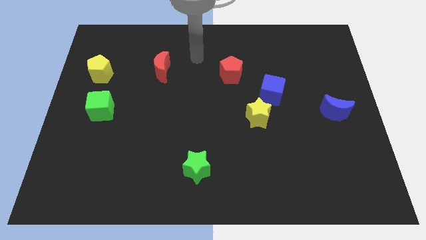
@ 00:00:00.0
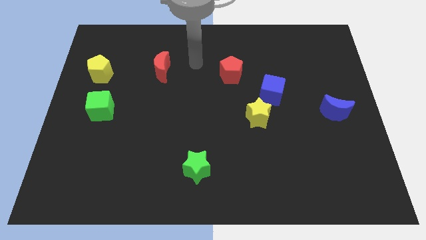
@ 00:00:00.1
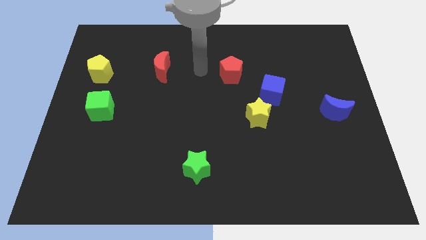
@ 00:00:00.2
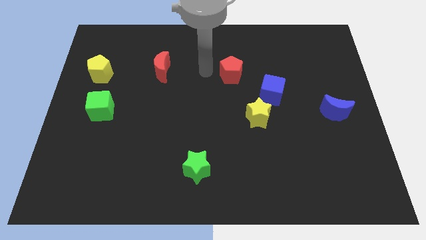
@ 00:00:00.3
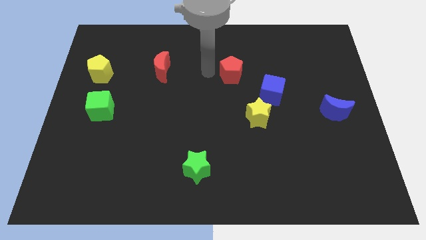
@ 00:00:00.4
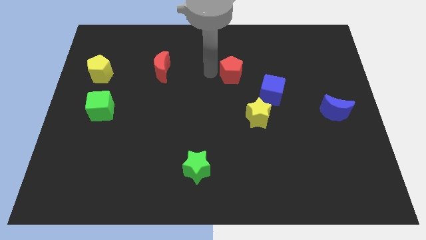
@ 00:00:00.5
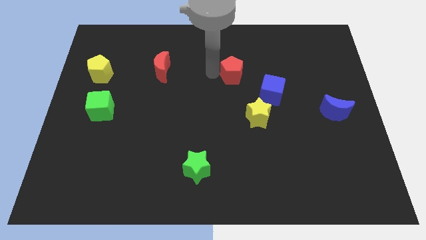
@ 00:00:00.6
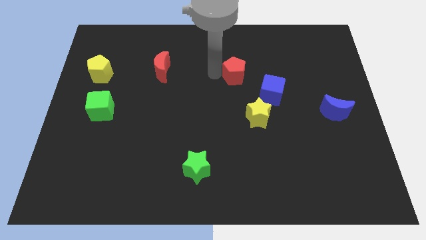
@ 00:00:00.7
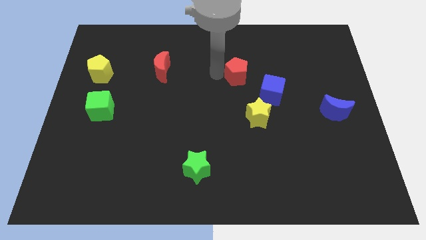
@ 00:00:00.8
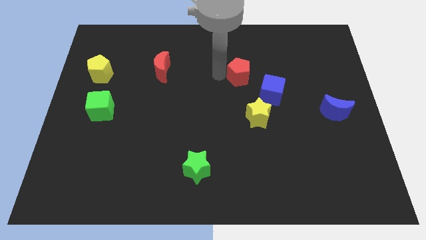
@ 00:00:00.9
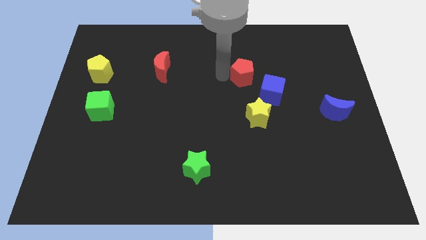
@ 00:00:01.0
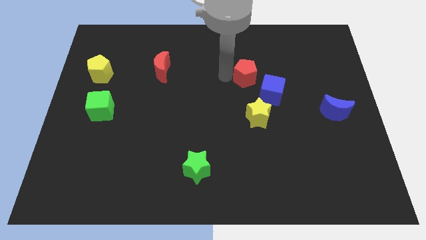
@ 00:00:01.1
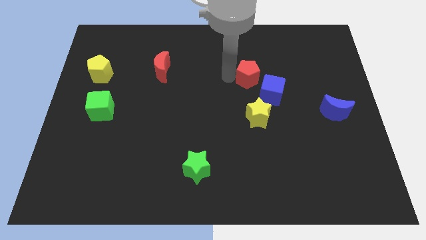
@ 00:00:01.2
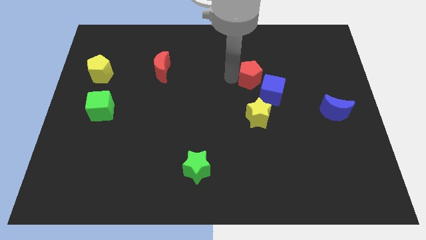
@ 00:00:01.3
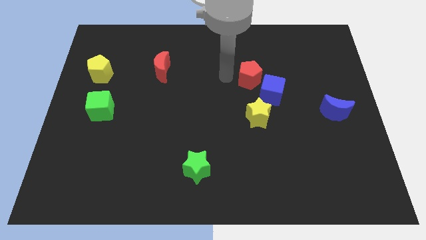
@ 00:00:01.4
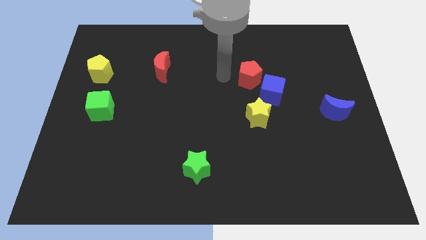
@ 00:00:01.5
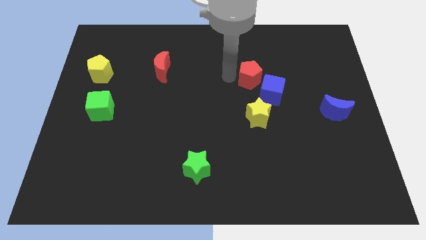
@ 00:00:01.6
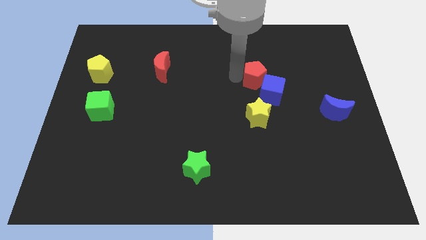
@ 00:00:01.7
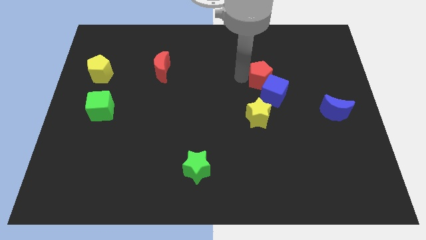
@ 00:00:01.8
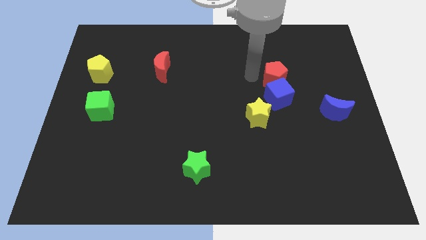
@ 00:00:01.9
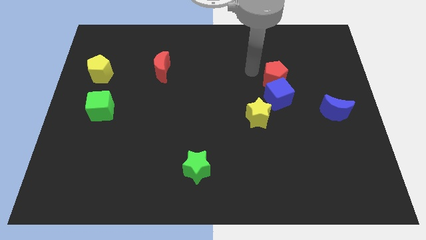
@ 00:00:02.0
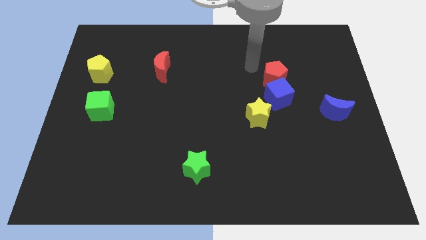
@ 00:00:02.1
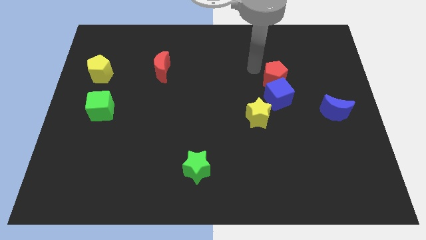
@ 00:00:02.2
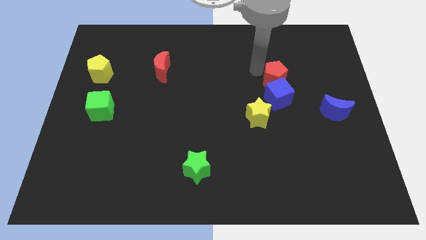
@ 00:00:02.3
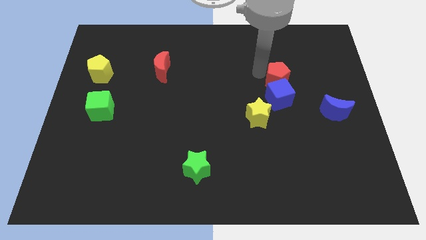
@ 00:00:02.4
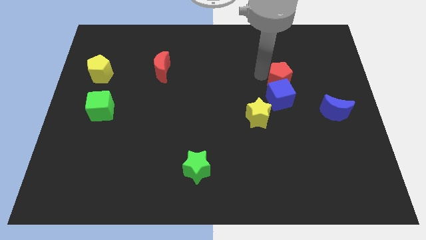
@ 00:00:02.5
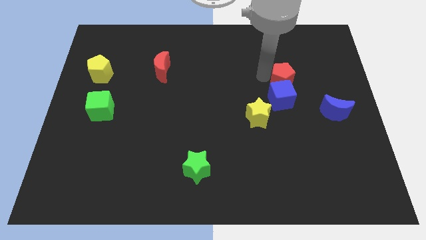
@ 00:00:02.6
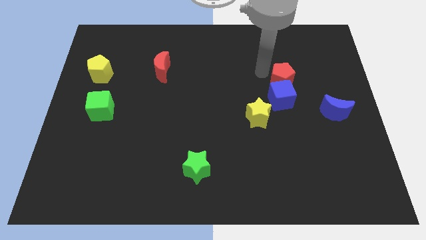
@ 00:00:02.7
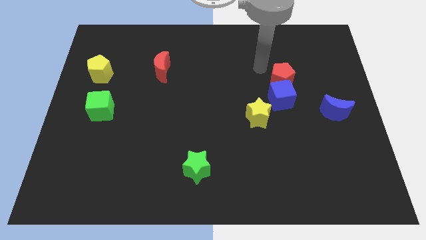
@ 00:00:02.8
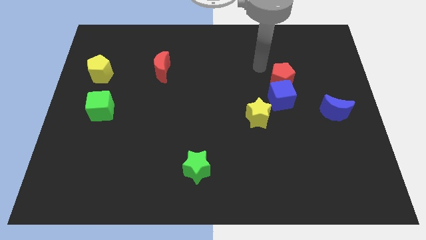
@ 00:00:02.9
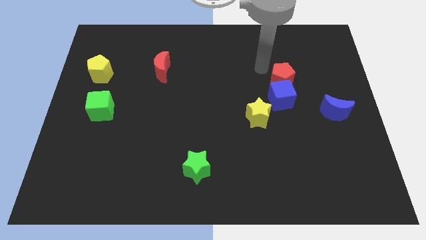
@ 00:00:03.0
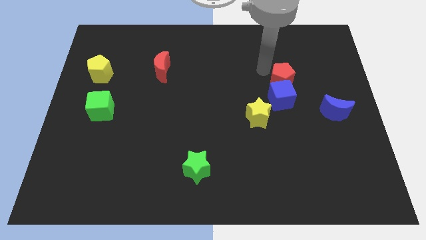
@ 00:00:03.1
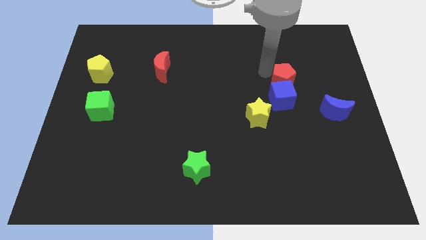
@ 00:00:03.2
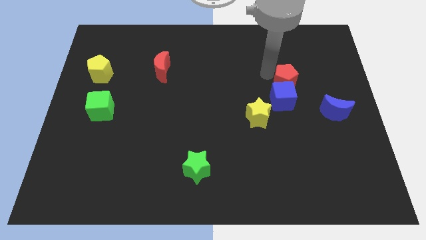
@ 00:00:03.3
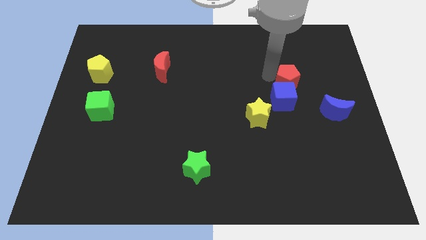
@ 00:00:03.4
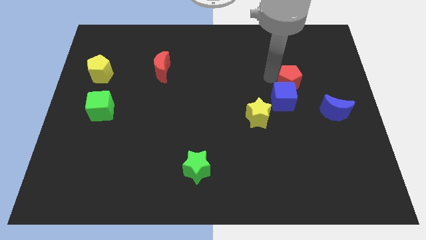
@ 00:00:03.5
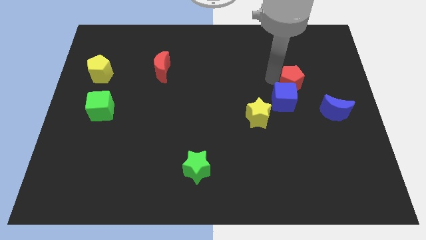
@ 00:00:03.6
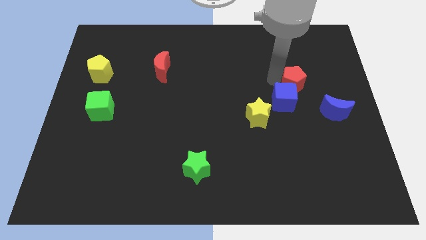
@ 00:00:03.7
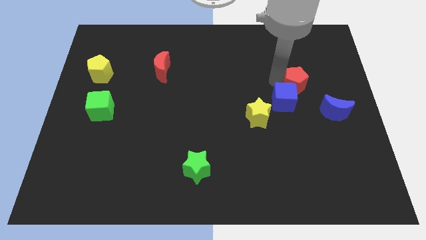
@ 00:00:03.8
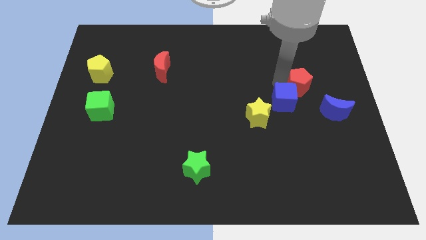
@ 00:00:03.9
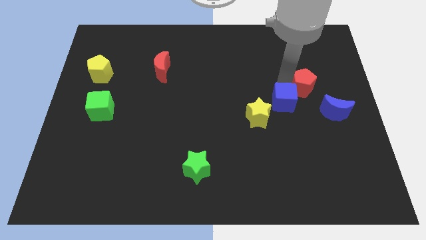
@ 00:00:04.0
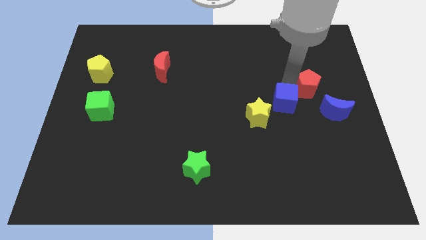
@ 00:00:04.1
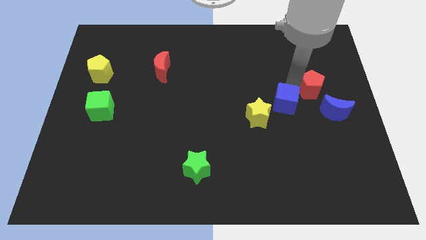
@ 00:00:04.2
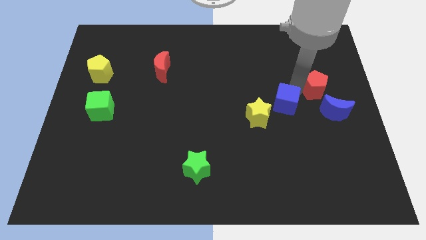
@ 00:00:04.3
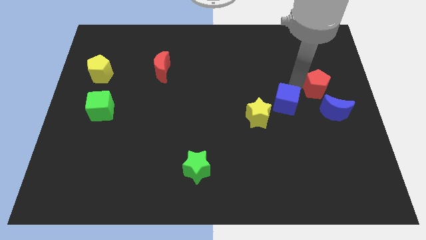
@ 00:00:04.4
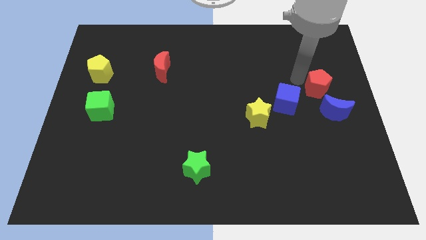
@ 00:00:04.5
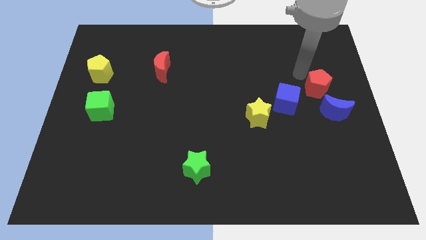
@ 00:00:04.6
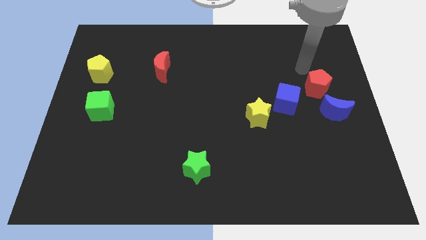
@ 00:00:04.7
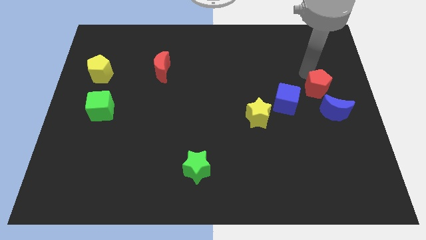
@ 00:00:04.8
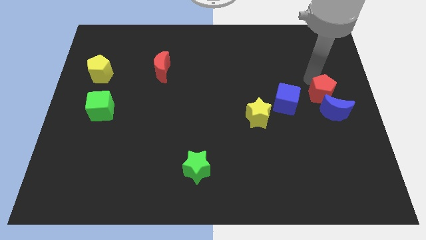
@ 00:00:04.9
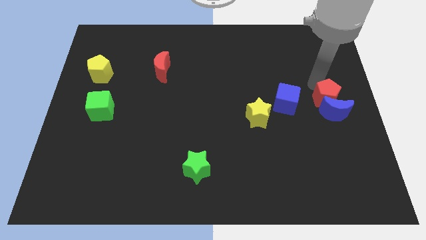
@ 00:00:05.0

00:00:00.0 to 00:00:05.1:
push the red pentagon close to the blue moon

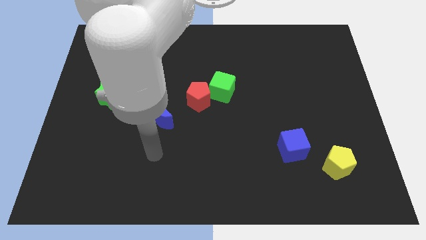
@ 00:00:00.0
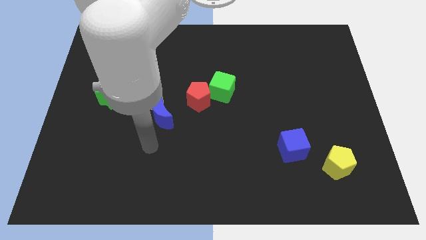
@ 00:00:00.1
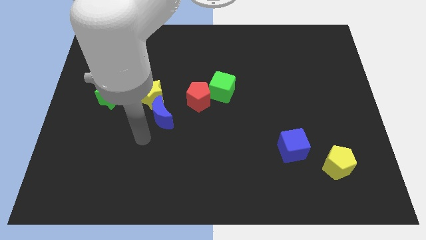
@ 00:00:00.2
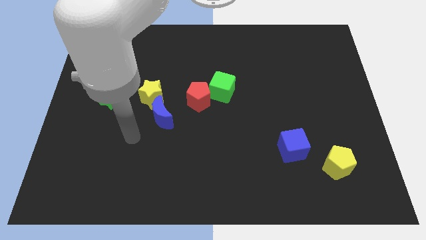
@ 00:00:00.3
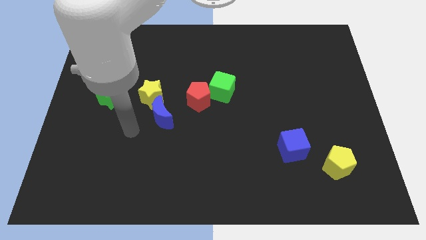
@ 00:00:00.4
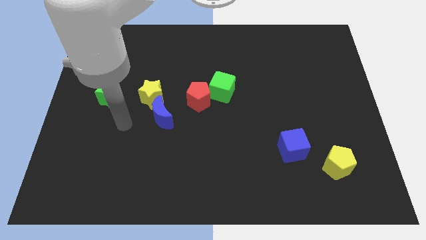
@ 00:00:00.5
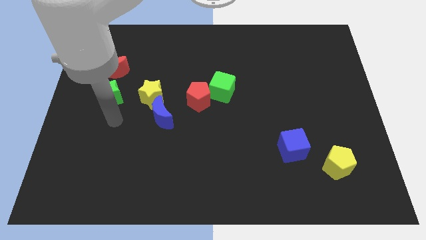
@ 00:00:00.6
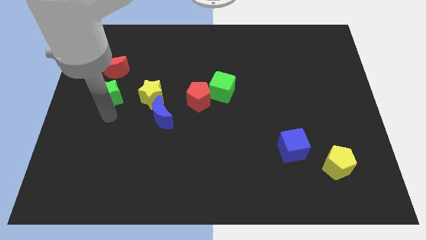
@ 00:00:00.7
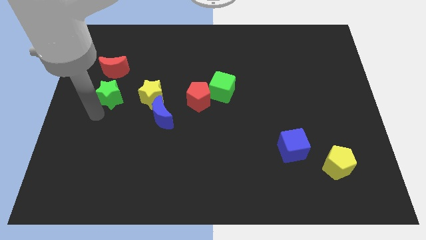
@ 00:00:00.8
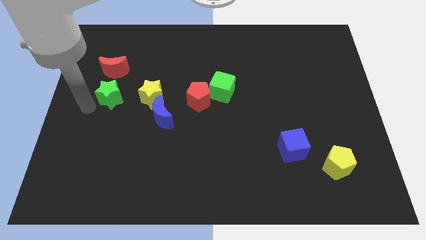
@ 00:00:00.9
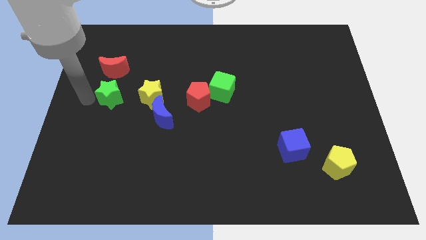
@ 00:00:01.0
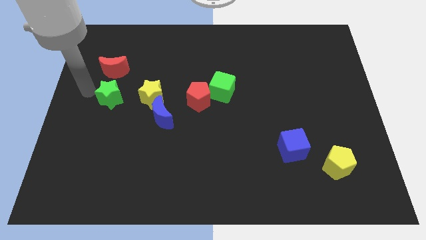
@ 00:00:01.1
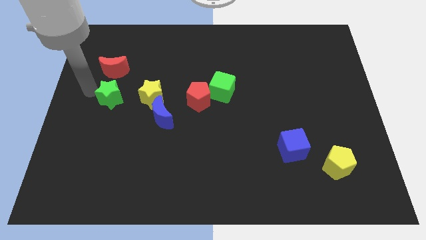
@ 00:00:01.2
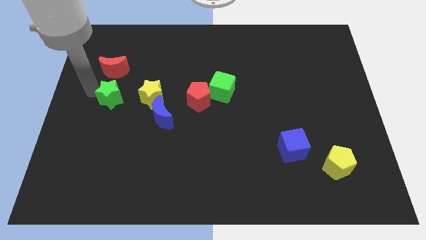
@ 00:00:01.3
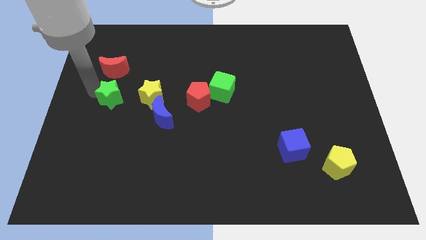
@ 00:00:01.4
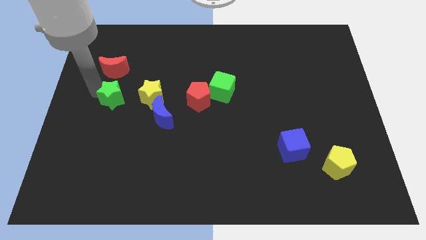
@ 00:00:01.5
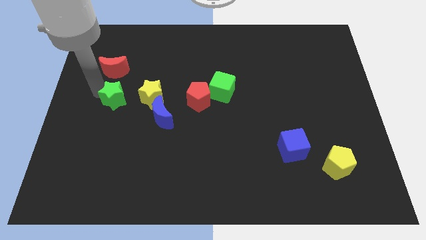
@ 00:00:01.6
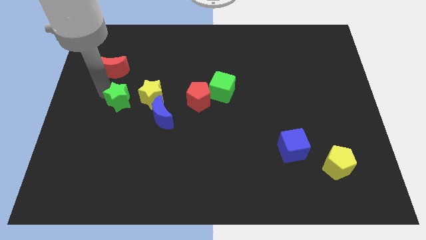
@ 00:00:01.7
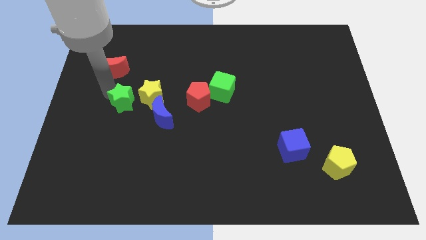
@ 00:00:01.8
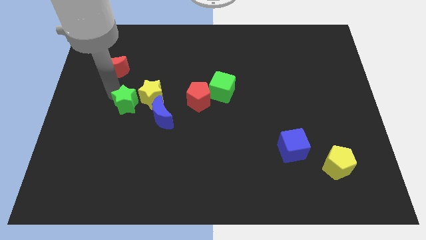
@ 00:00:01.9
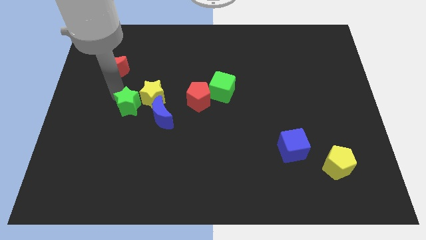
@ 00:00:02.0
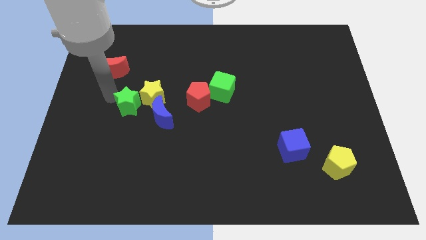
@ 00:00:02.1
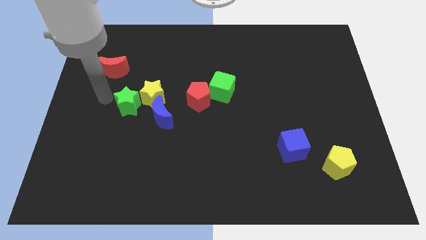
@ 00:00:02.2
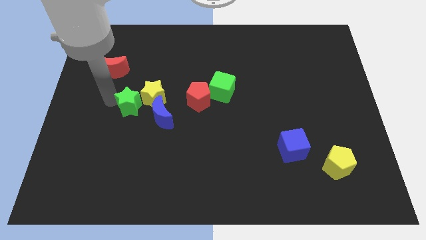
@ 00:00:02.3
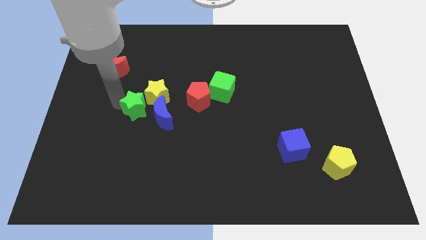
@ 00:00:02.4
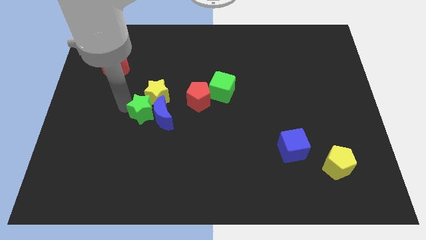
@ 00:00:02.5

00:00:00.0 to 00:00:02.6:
slide the green star towards the blue moon
